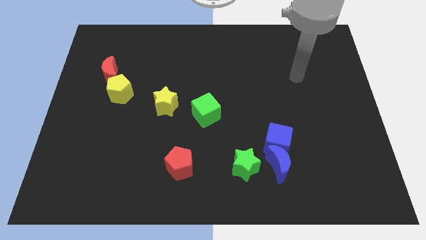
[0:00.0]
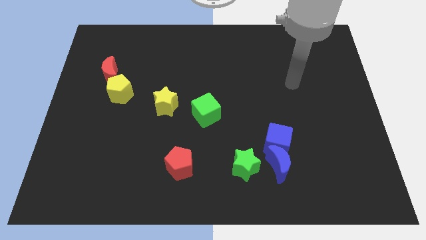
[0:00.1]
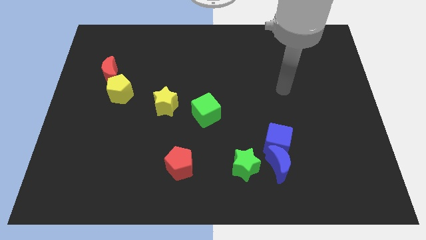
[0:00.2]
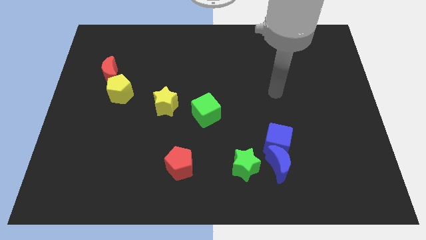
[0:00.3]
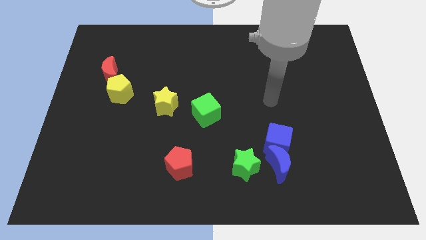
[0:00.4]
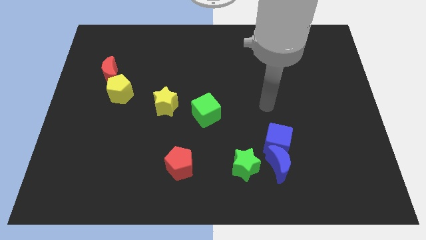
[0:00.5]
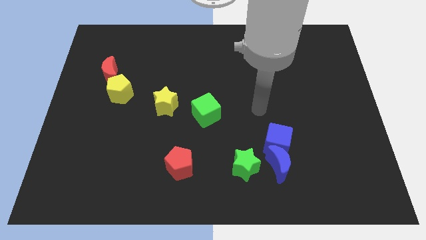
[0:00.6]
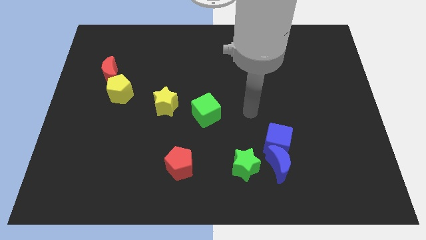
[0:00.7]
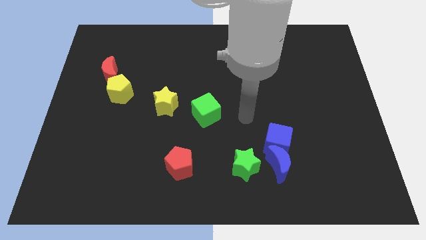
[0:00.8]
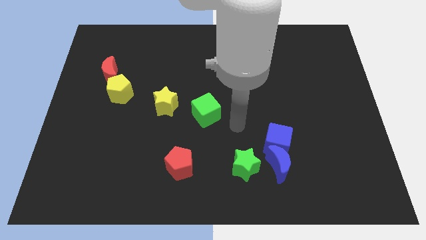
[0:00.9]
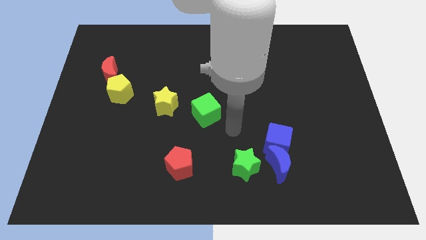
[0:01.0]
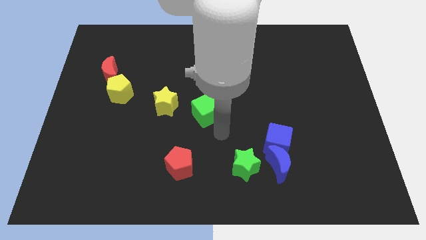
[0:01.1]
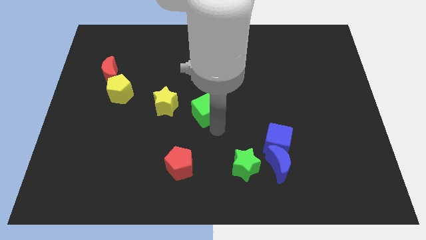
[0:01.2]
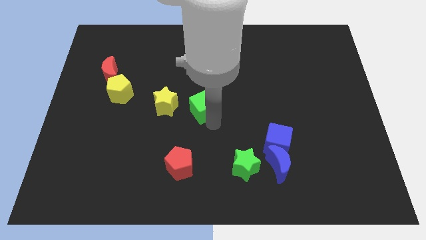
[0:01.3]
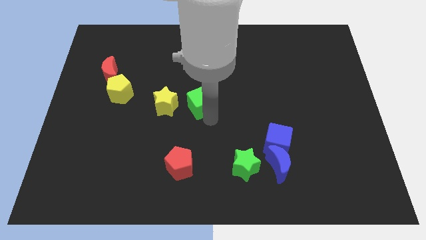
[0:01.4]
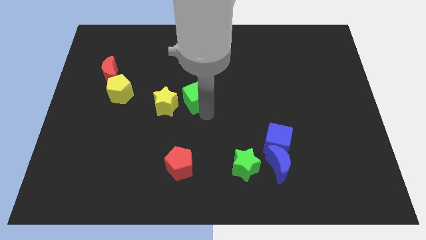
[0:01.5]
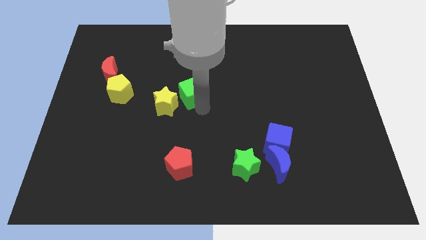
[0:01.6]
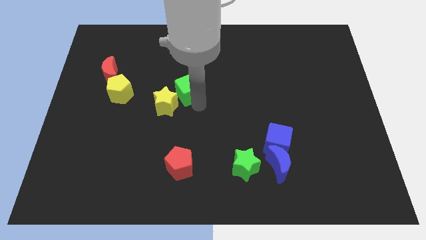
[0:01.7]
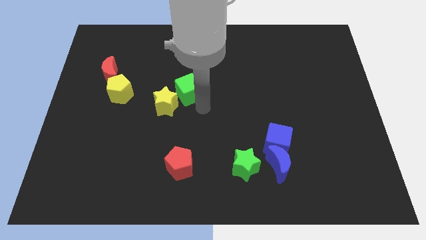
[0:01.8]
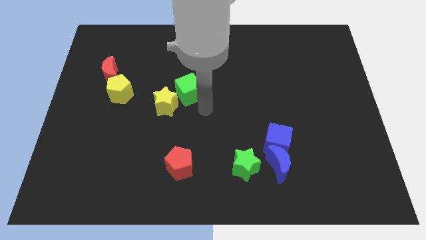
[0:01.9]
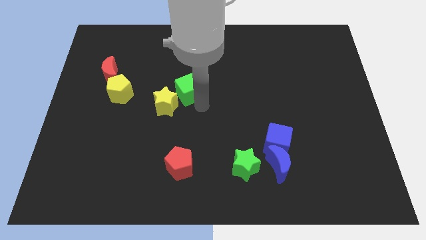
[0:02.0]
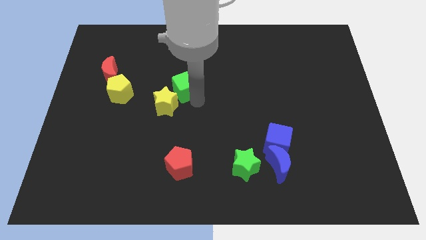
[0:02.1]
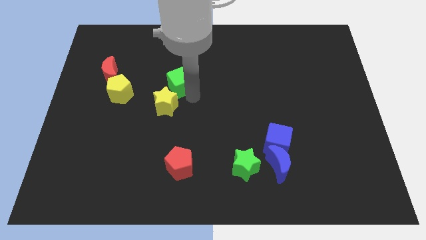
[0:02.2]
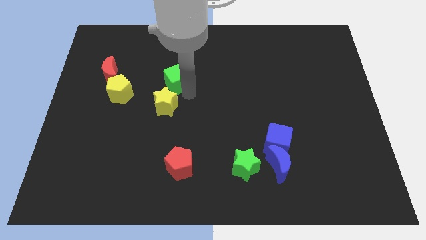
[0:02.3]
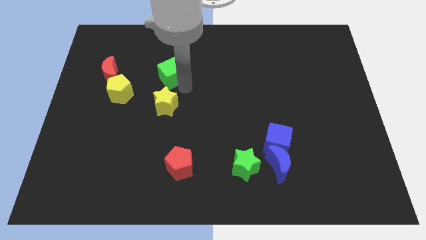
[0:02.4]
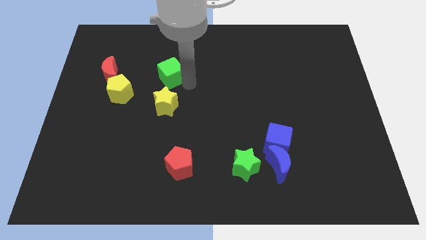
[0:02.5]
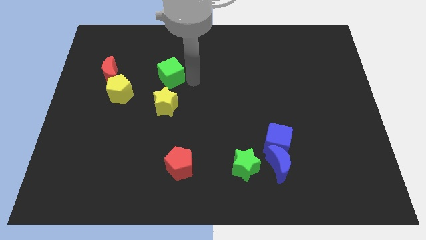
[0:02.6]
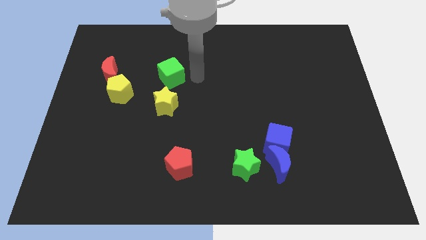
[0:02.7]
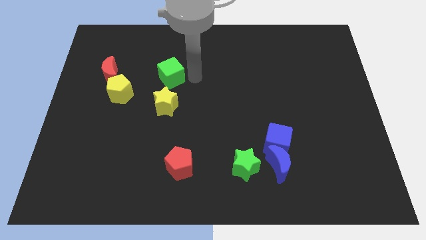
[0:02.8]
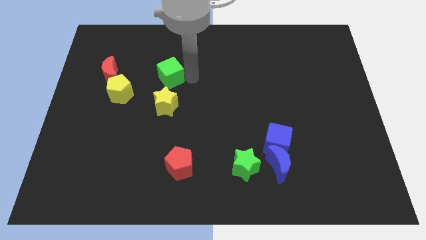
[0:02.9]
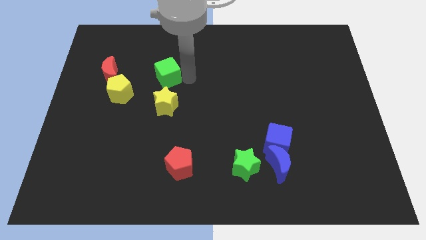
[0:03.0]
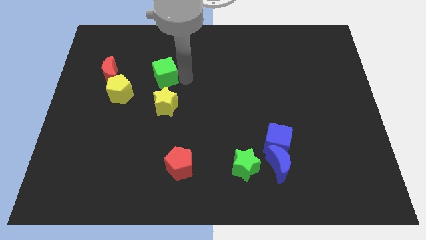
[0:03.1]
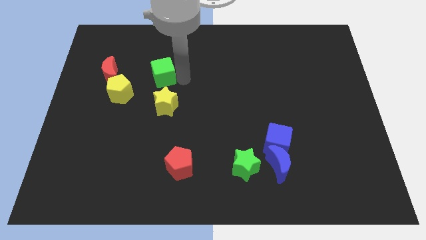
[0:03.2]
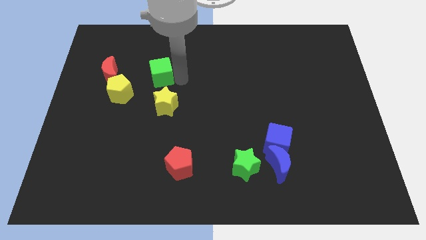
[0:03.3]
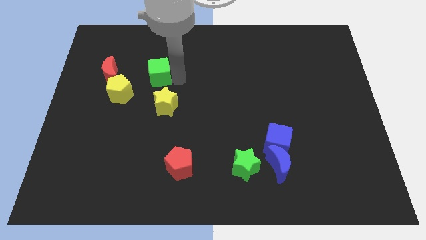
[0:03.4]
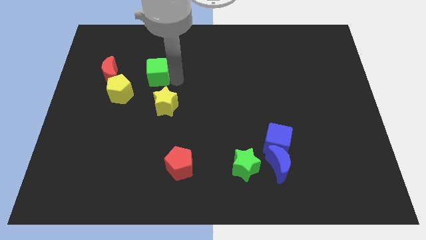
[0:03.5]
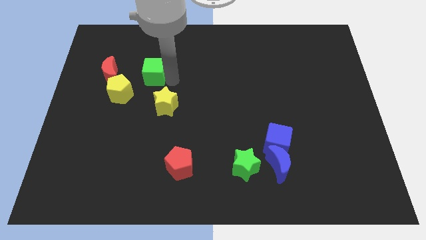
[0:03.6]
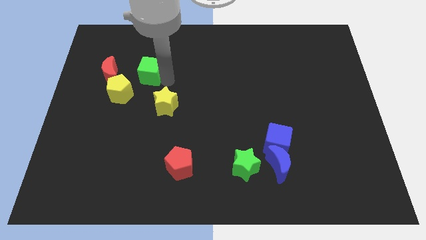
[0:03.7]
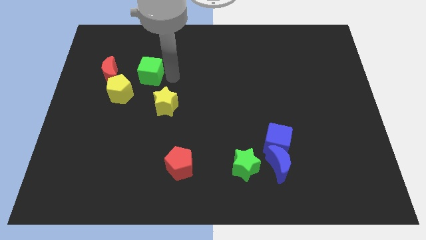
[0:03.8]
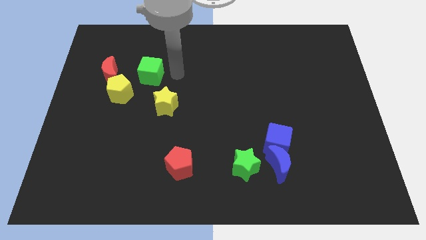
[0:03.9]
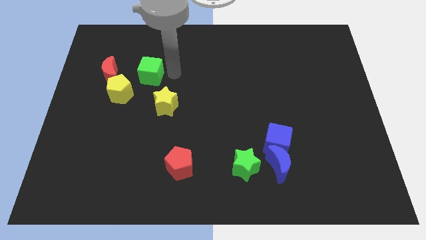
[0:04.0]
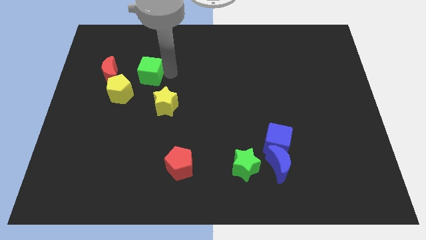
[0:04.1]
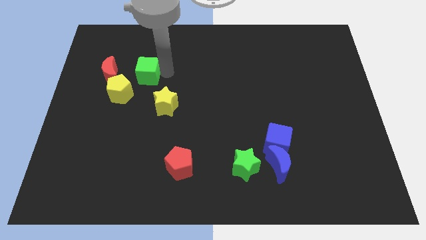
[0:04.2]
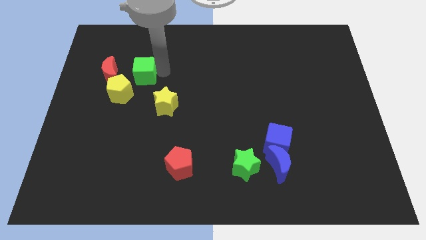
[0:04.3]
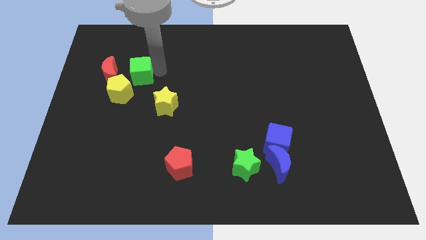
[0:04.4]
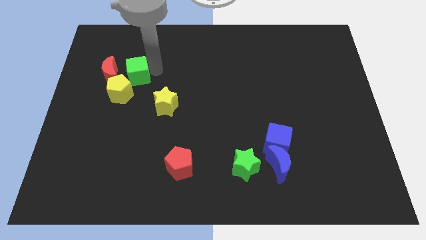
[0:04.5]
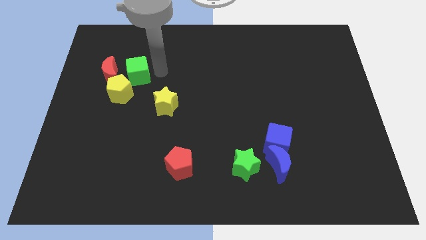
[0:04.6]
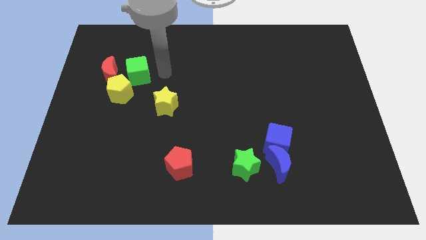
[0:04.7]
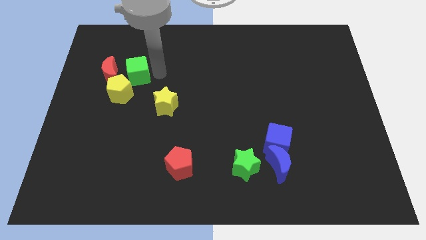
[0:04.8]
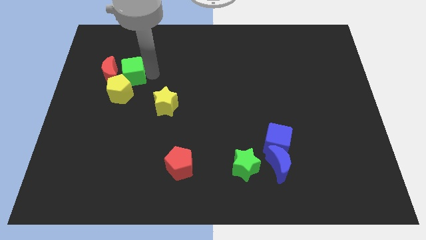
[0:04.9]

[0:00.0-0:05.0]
move the green cube next to the red moon

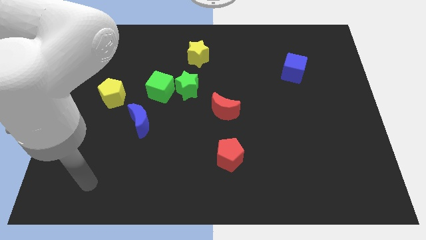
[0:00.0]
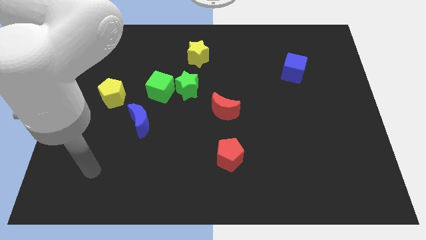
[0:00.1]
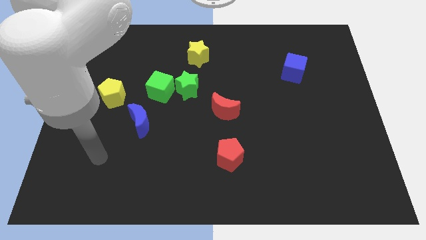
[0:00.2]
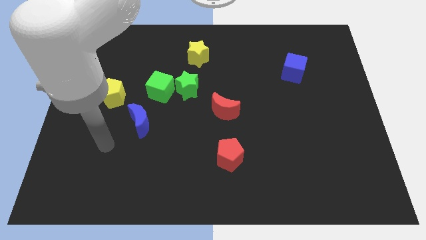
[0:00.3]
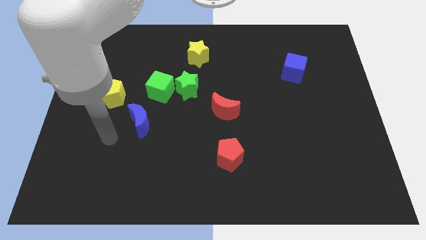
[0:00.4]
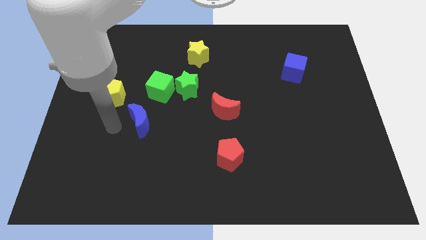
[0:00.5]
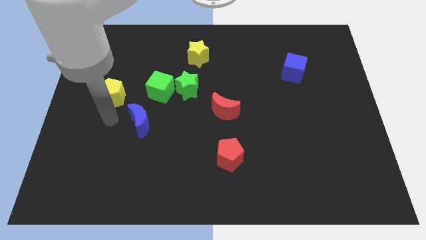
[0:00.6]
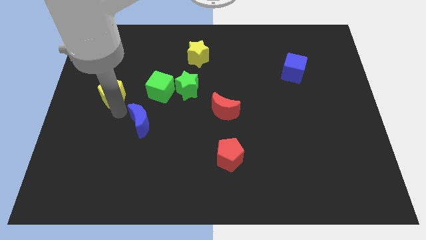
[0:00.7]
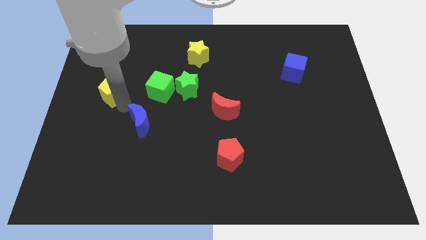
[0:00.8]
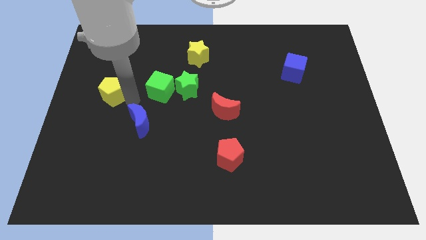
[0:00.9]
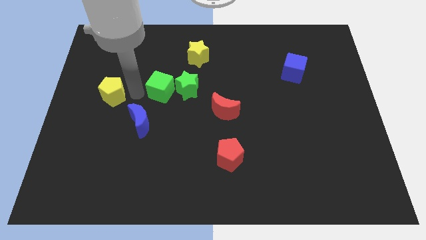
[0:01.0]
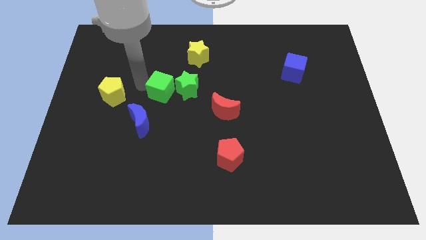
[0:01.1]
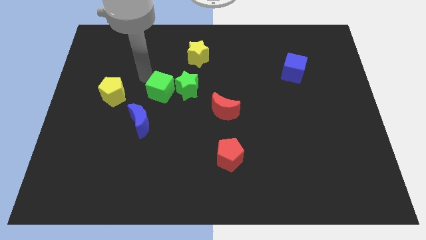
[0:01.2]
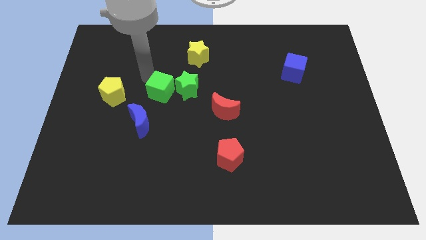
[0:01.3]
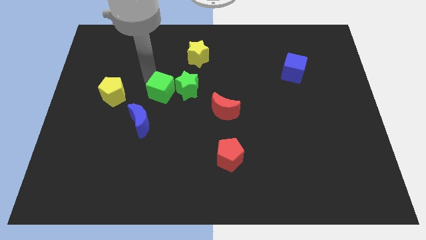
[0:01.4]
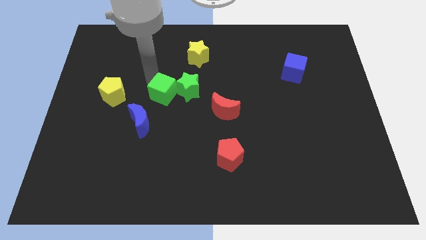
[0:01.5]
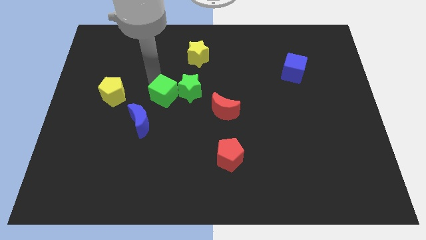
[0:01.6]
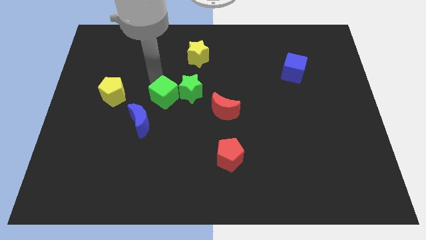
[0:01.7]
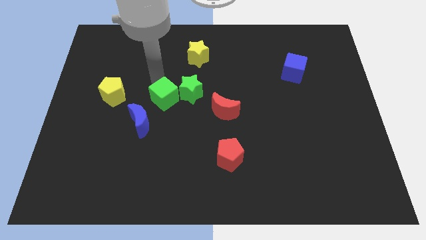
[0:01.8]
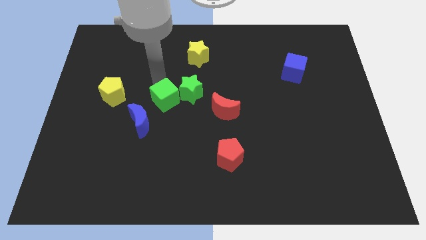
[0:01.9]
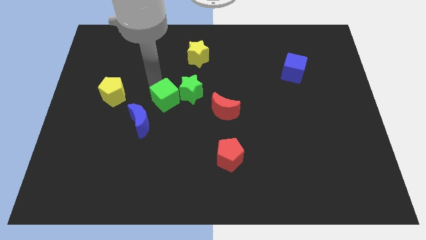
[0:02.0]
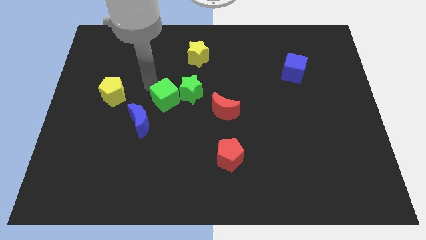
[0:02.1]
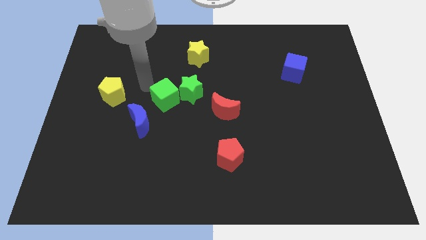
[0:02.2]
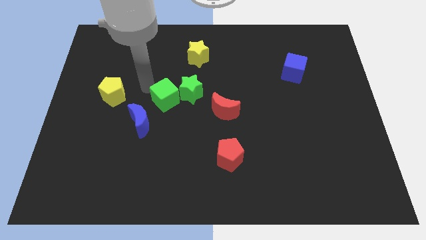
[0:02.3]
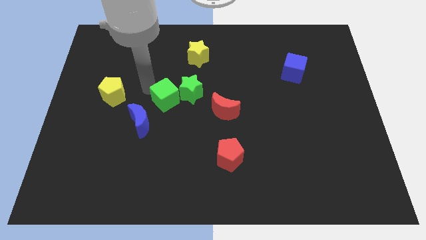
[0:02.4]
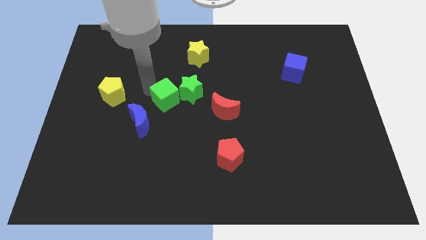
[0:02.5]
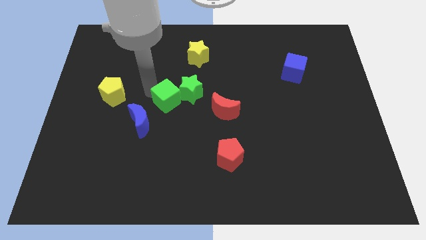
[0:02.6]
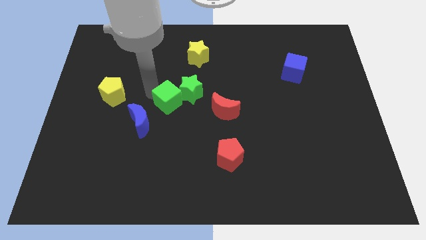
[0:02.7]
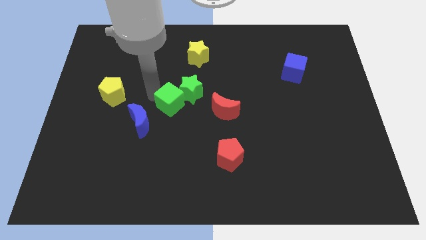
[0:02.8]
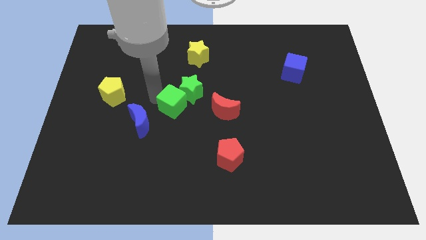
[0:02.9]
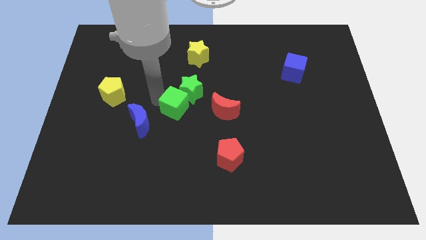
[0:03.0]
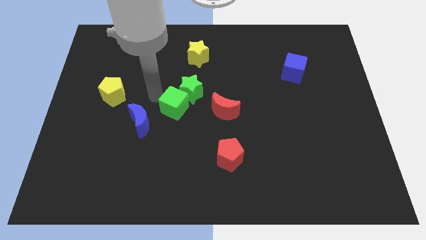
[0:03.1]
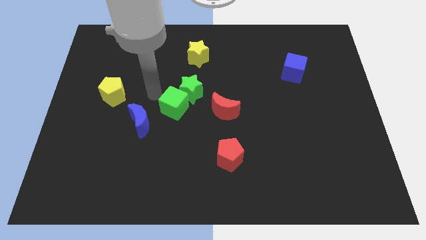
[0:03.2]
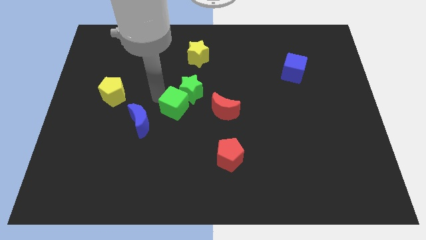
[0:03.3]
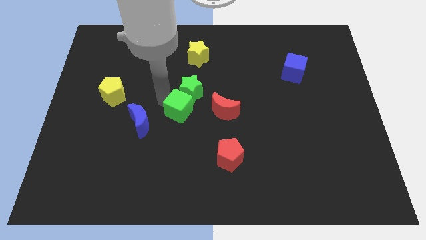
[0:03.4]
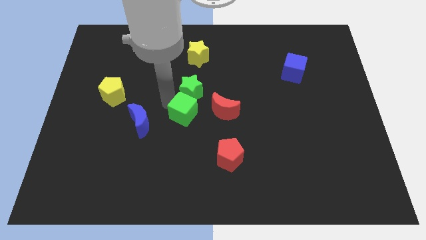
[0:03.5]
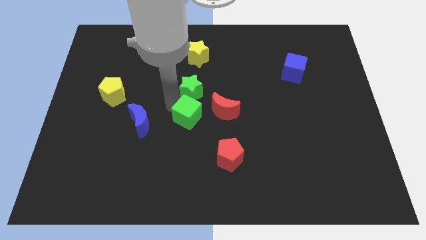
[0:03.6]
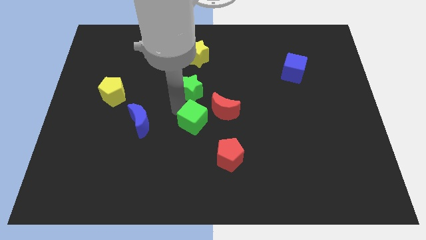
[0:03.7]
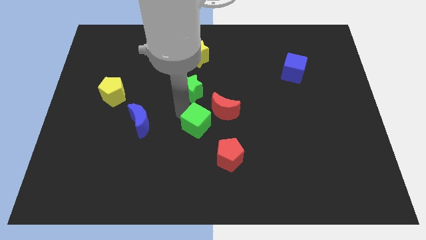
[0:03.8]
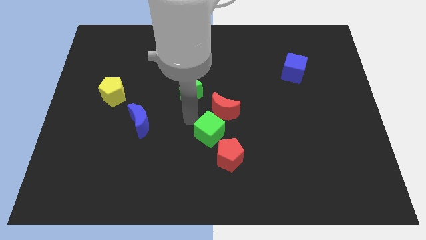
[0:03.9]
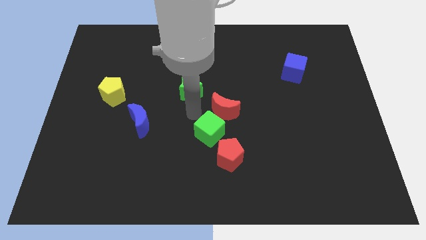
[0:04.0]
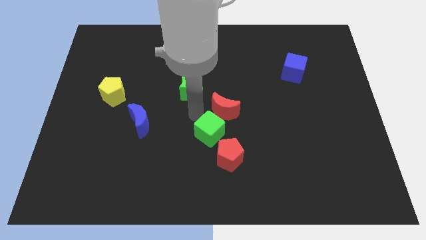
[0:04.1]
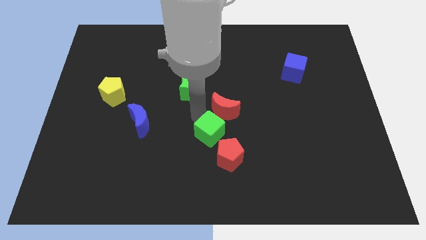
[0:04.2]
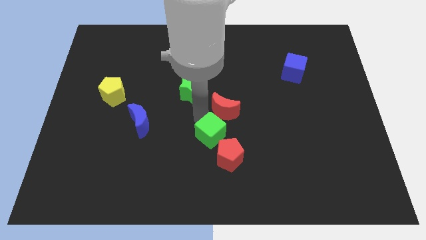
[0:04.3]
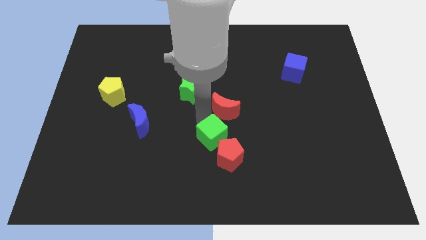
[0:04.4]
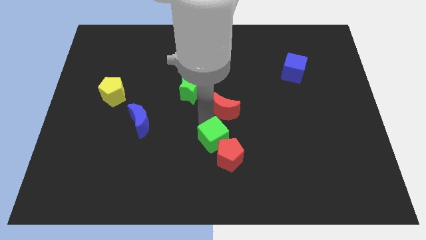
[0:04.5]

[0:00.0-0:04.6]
put the green cube towards the red pentagon
